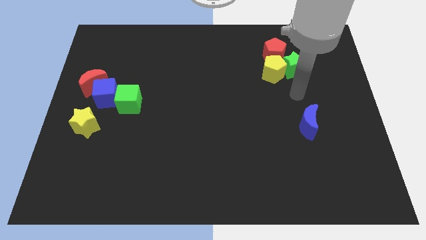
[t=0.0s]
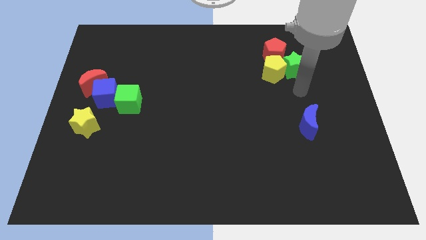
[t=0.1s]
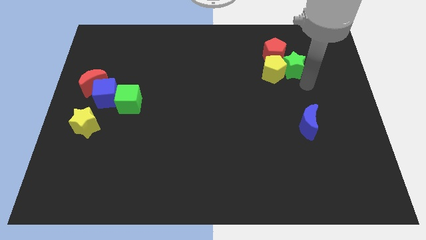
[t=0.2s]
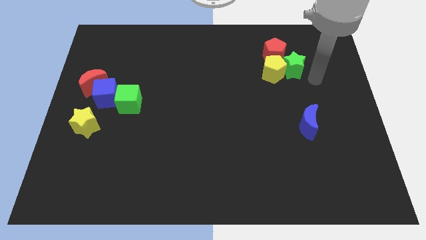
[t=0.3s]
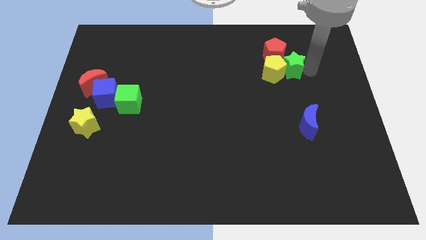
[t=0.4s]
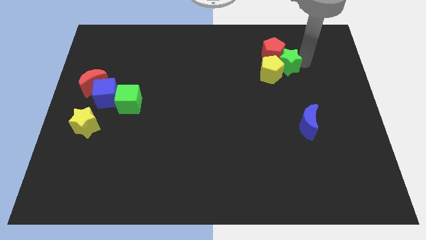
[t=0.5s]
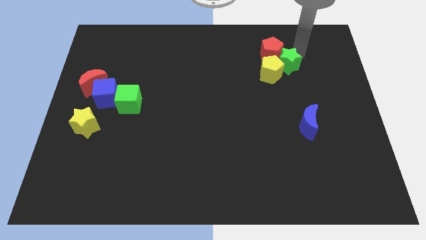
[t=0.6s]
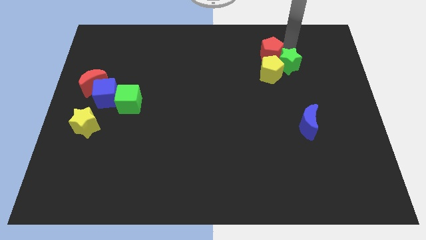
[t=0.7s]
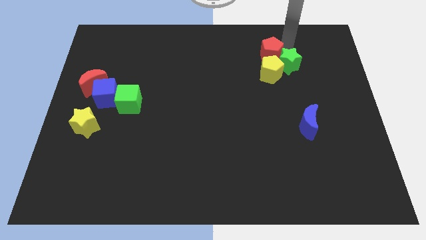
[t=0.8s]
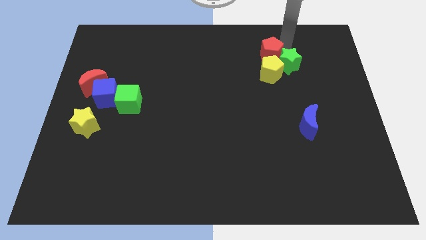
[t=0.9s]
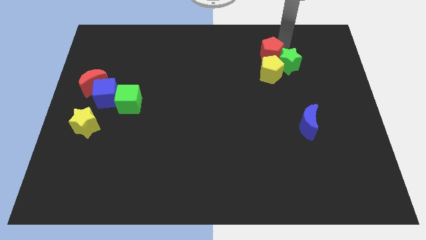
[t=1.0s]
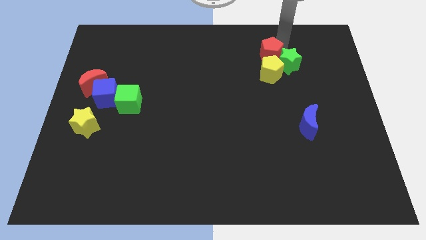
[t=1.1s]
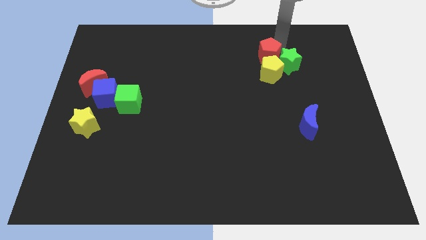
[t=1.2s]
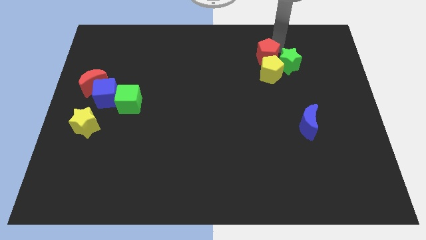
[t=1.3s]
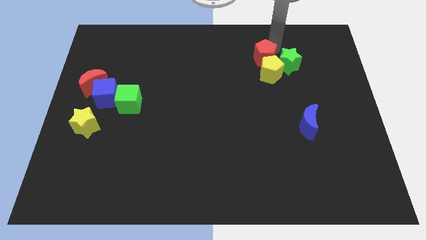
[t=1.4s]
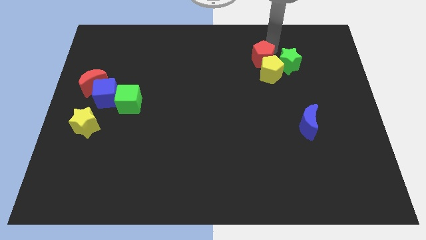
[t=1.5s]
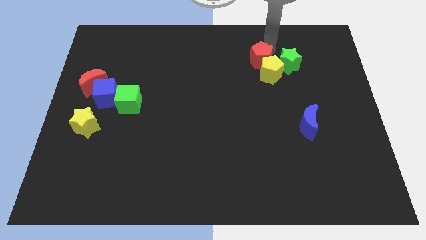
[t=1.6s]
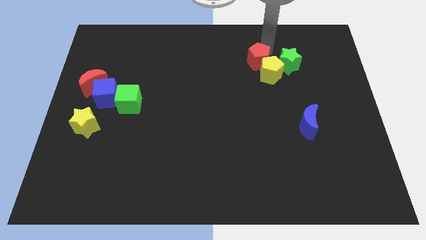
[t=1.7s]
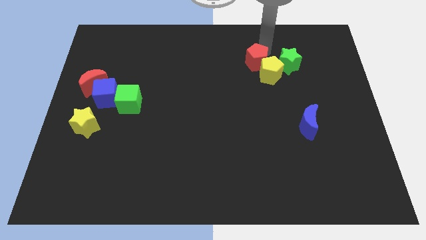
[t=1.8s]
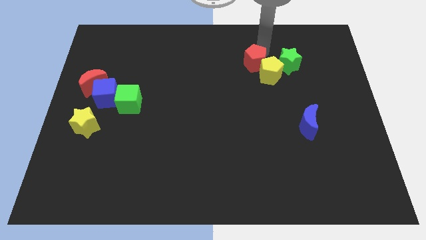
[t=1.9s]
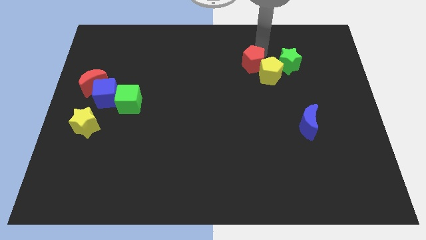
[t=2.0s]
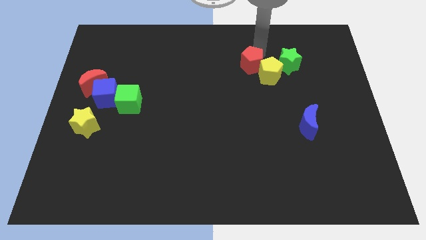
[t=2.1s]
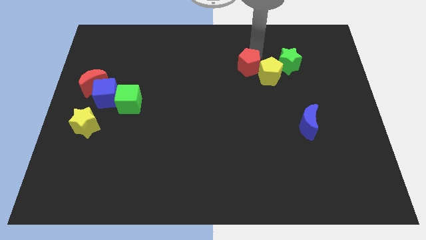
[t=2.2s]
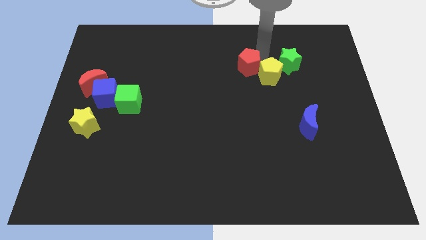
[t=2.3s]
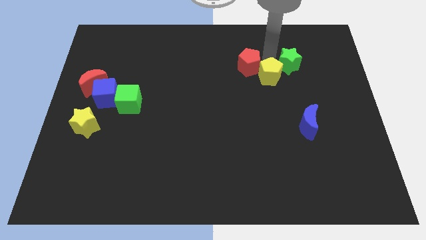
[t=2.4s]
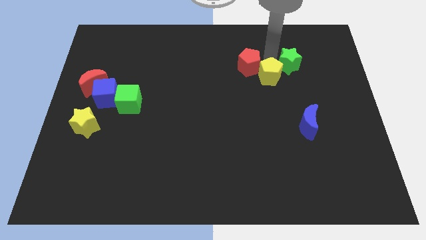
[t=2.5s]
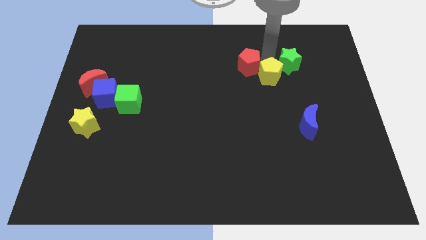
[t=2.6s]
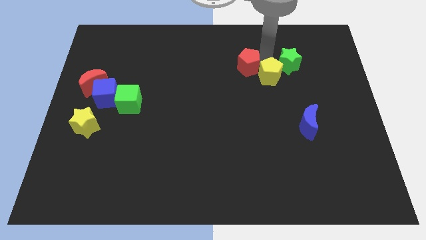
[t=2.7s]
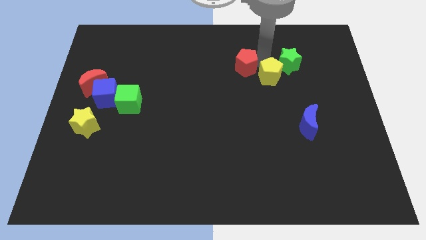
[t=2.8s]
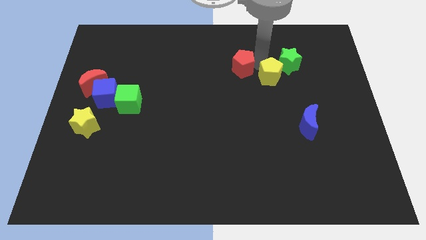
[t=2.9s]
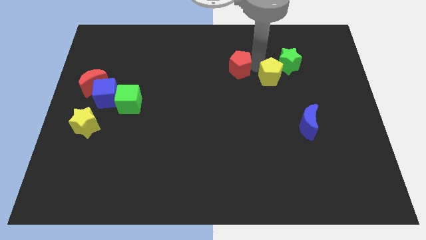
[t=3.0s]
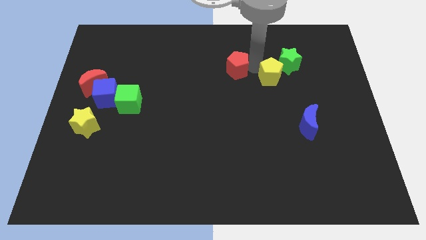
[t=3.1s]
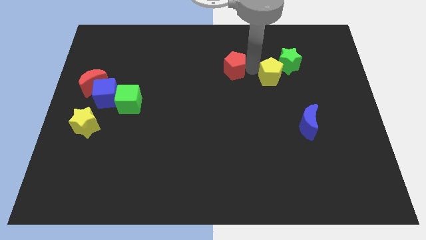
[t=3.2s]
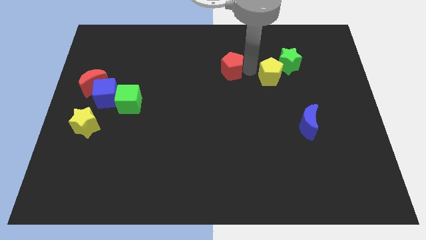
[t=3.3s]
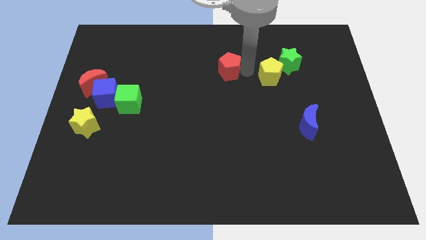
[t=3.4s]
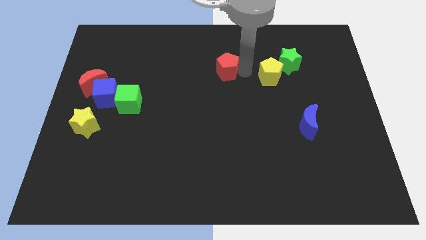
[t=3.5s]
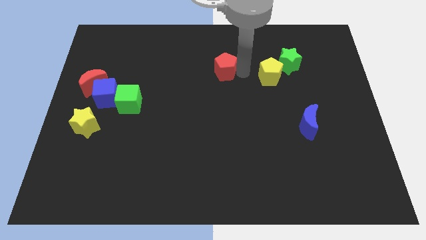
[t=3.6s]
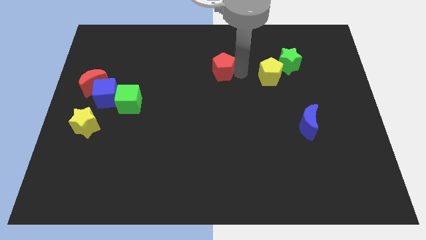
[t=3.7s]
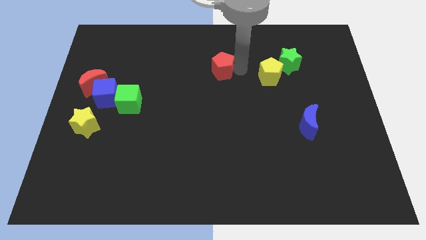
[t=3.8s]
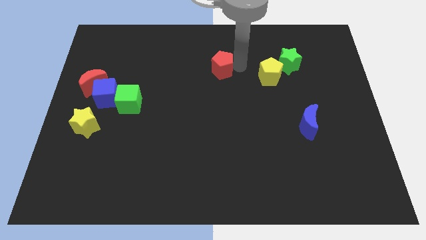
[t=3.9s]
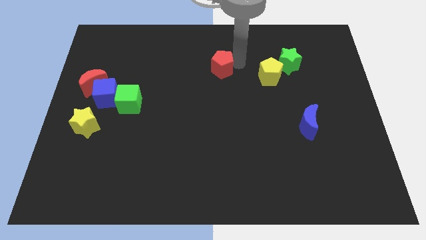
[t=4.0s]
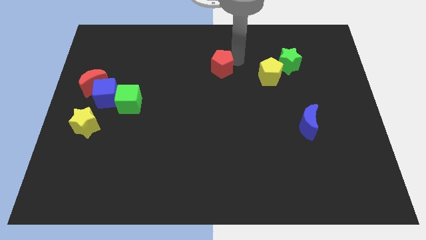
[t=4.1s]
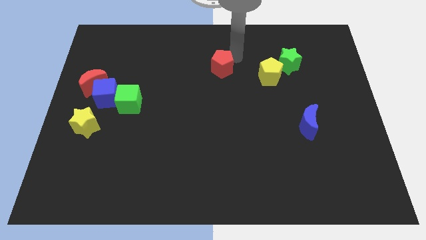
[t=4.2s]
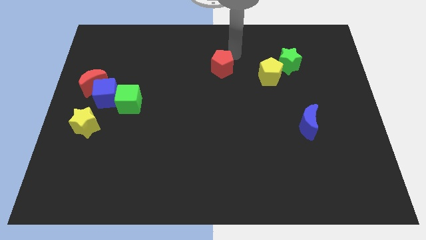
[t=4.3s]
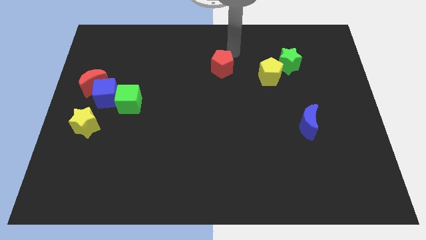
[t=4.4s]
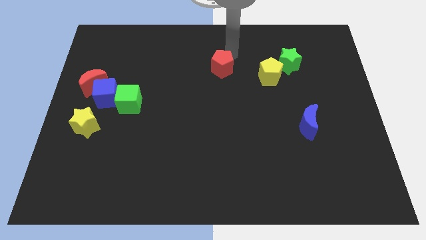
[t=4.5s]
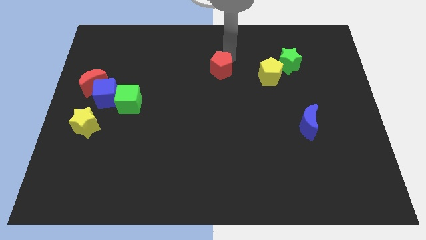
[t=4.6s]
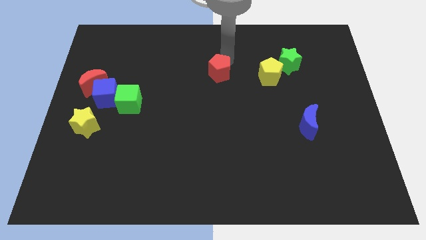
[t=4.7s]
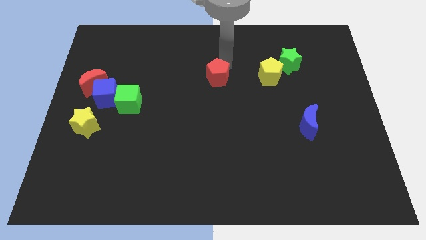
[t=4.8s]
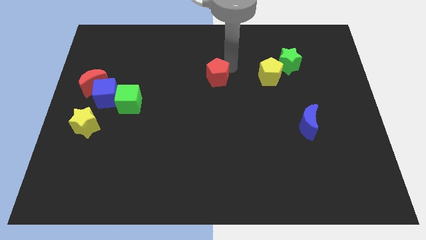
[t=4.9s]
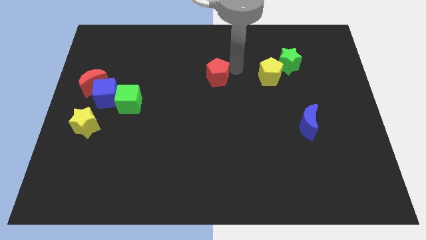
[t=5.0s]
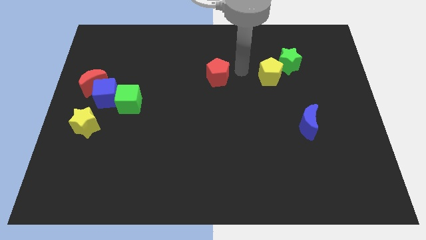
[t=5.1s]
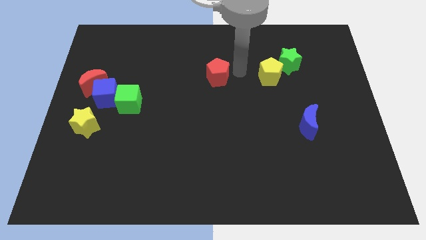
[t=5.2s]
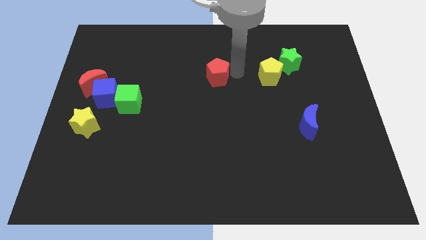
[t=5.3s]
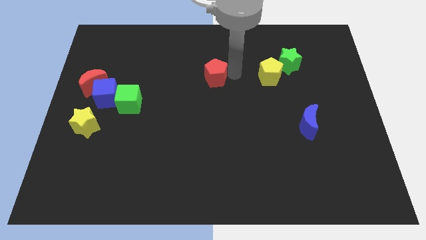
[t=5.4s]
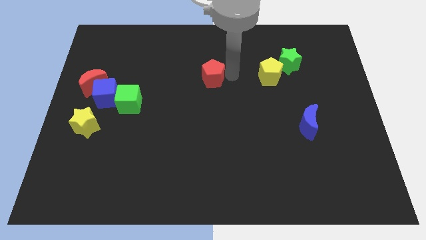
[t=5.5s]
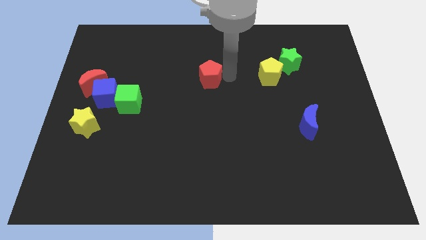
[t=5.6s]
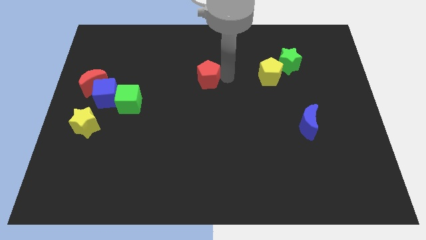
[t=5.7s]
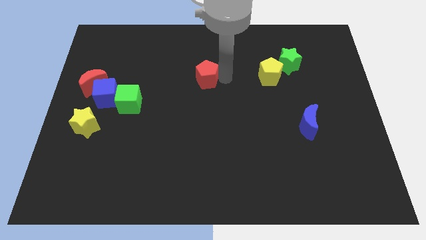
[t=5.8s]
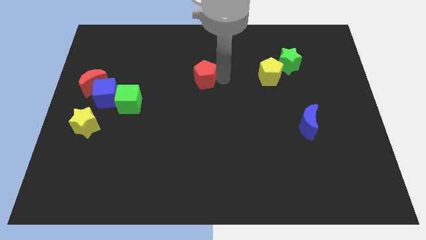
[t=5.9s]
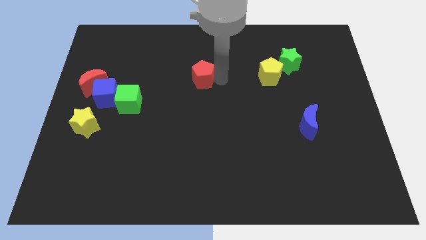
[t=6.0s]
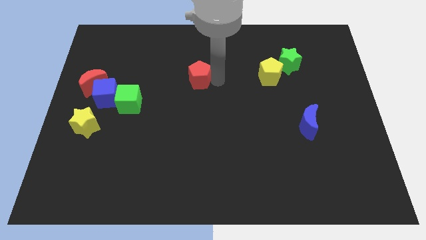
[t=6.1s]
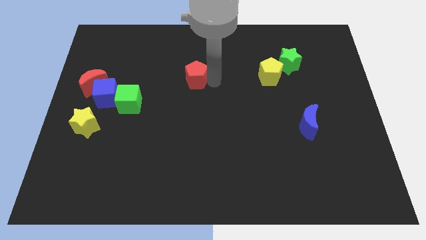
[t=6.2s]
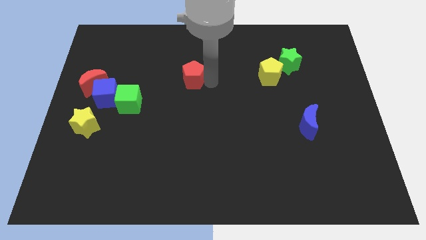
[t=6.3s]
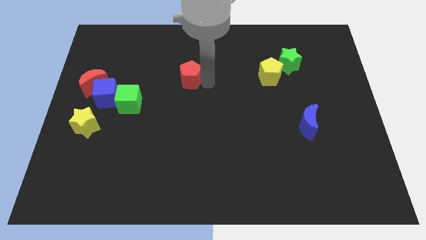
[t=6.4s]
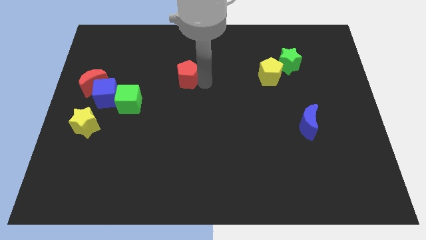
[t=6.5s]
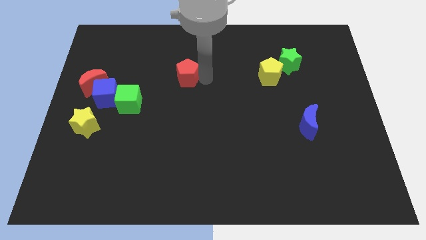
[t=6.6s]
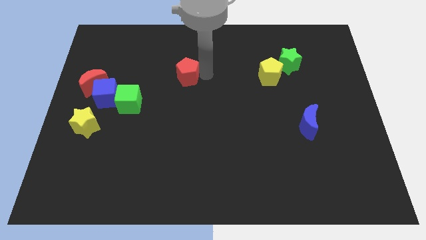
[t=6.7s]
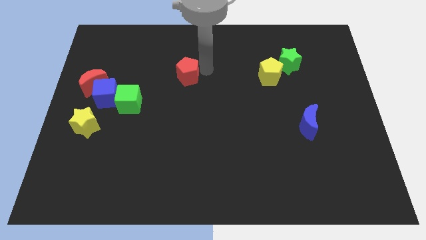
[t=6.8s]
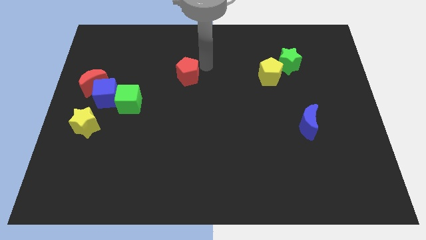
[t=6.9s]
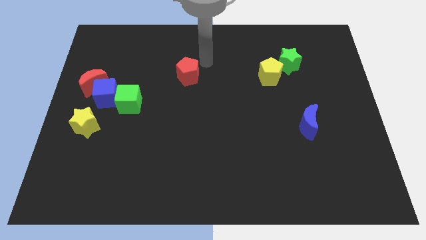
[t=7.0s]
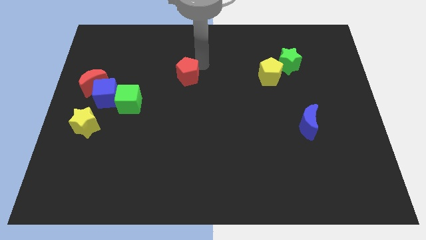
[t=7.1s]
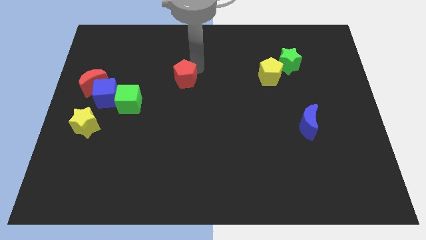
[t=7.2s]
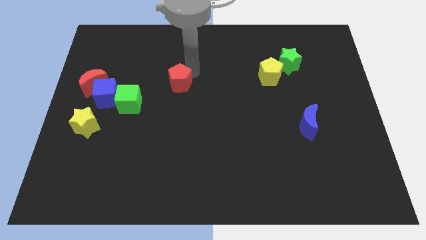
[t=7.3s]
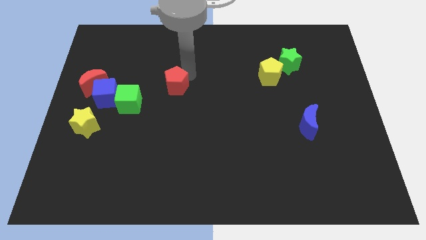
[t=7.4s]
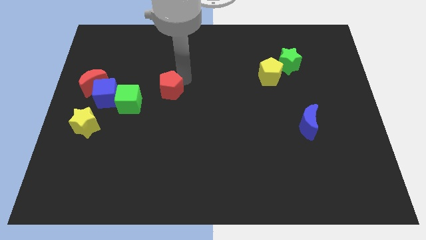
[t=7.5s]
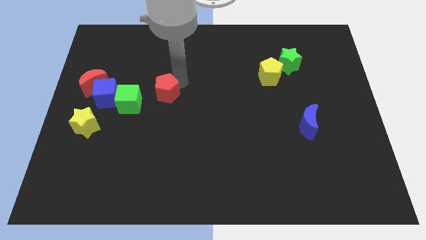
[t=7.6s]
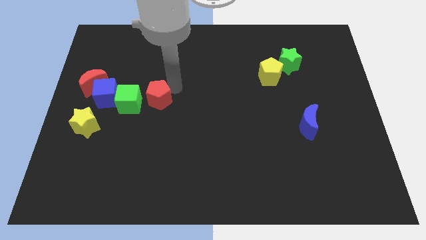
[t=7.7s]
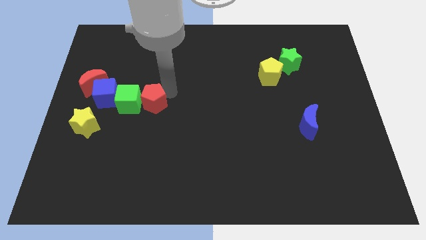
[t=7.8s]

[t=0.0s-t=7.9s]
move the red pentagon next to the green cube
